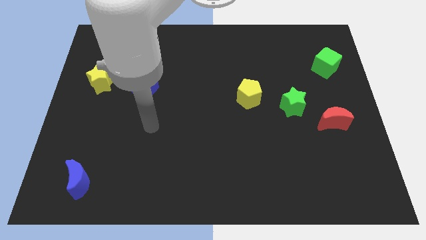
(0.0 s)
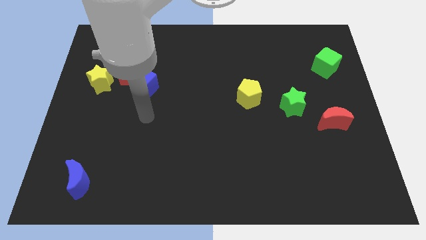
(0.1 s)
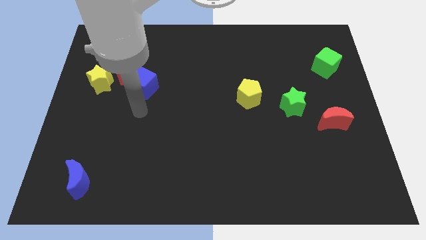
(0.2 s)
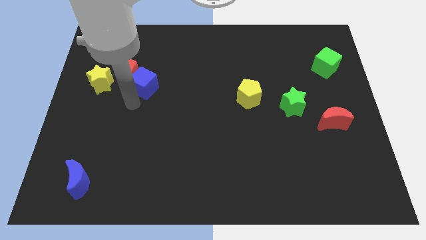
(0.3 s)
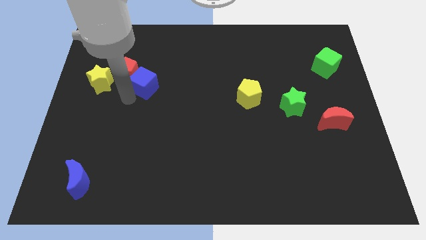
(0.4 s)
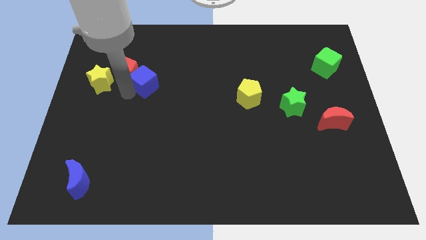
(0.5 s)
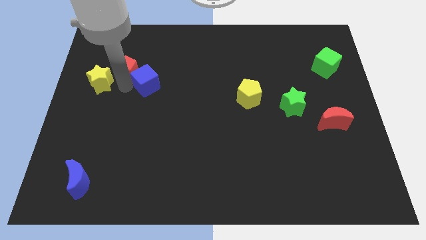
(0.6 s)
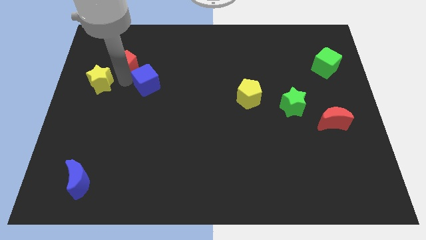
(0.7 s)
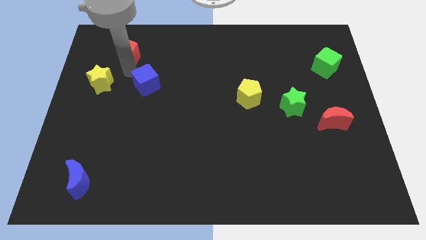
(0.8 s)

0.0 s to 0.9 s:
separate the blue cube from the red pentagon

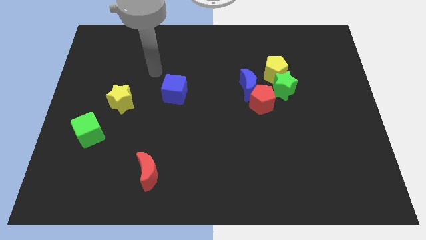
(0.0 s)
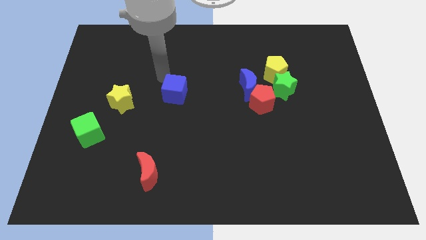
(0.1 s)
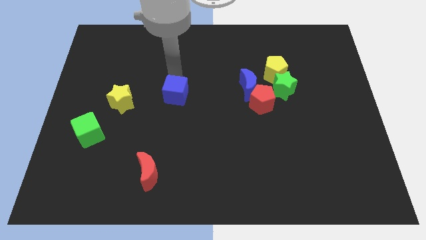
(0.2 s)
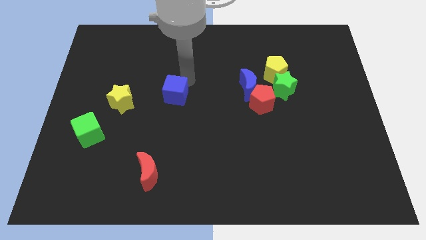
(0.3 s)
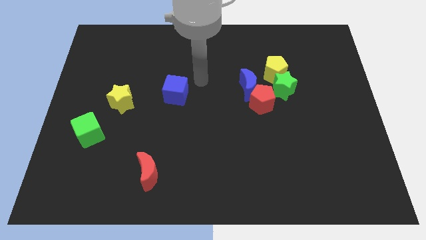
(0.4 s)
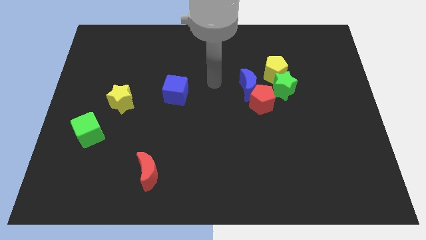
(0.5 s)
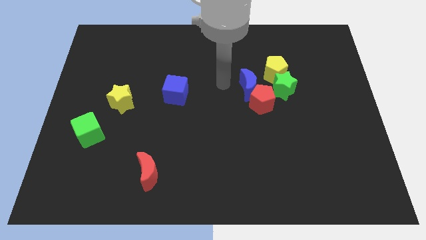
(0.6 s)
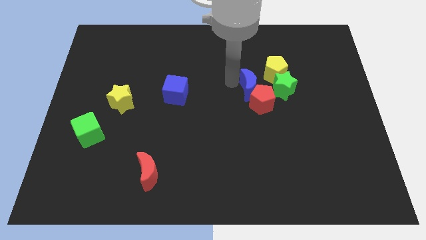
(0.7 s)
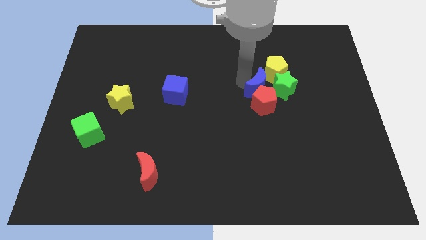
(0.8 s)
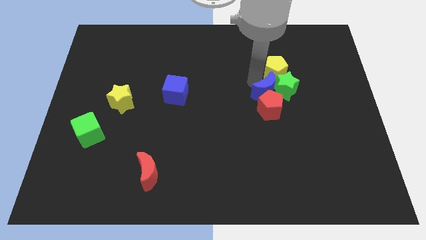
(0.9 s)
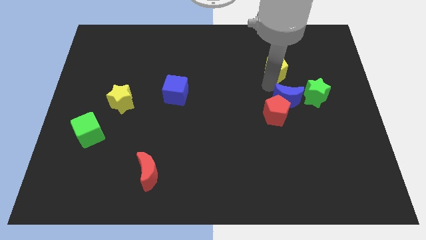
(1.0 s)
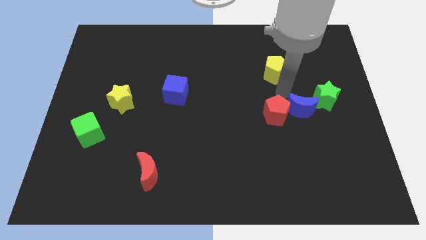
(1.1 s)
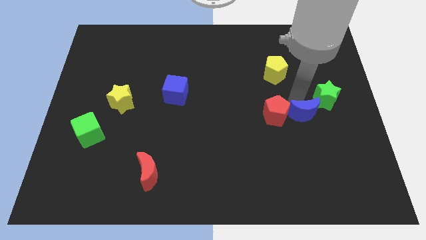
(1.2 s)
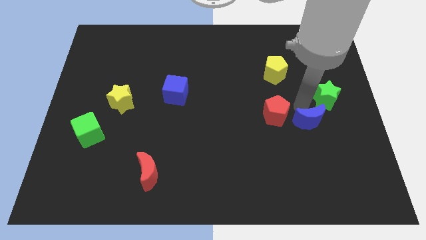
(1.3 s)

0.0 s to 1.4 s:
move the red pentagon away from the blue moon and green star

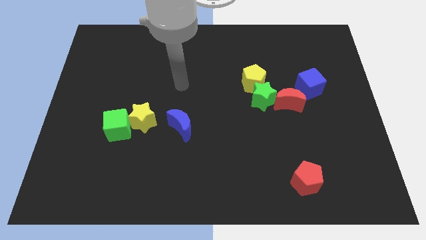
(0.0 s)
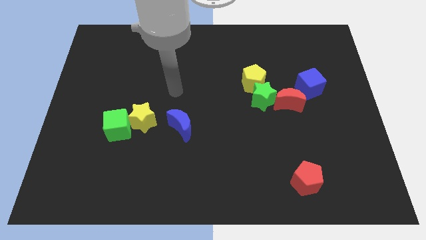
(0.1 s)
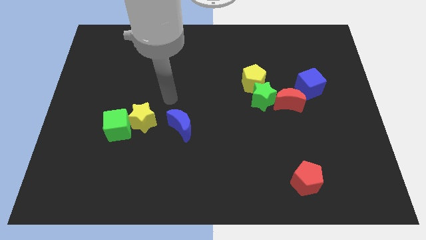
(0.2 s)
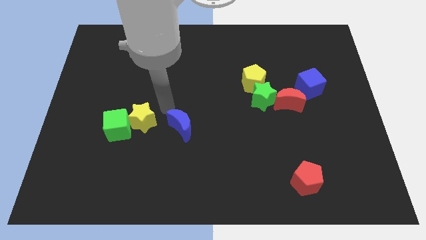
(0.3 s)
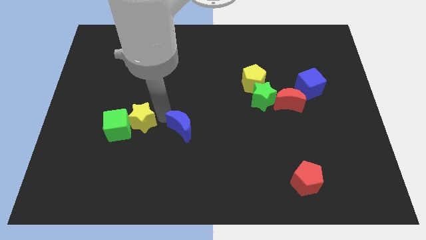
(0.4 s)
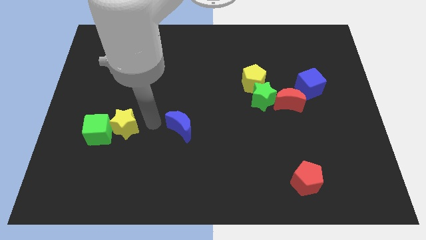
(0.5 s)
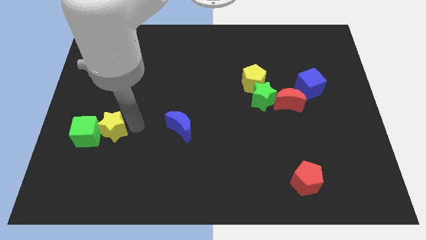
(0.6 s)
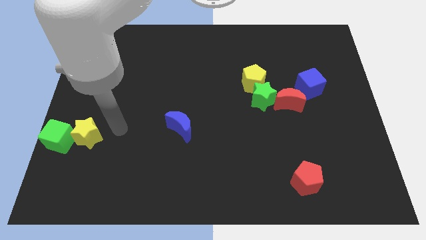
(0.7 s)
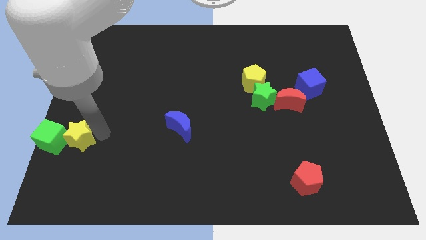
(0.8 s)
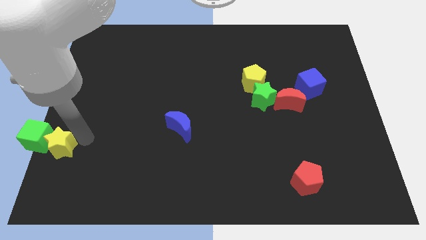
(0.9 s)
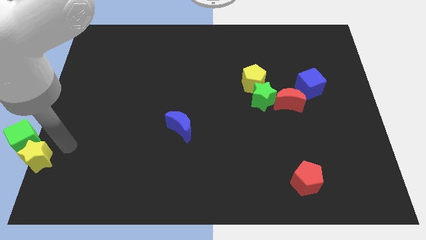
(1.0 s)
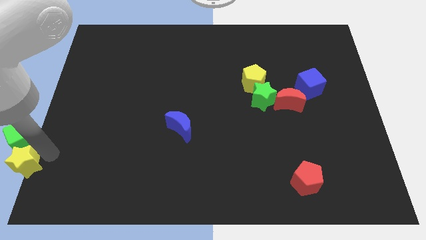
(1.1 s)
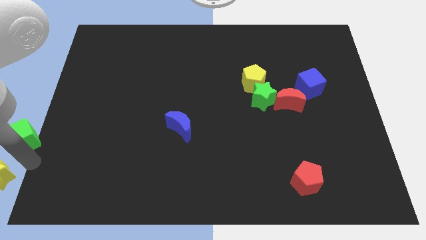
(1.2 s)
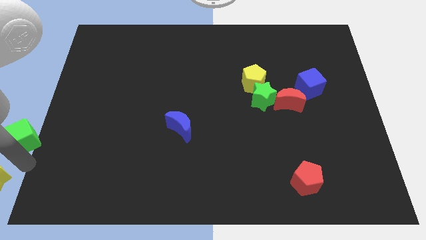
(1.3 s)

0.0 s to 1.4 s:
separate the green cube from the yellow star

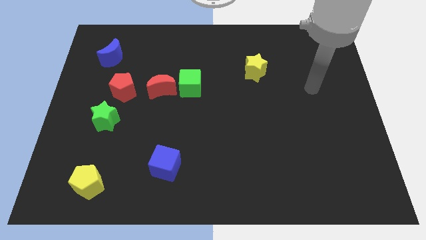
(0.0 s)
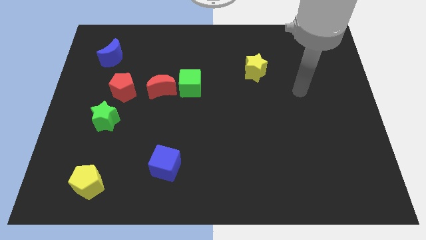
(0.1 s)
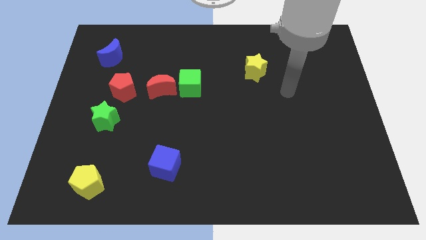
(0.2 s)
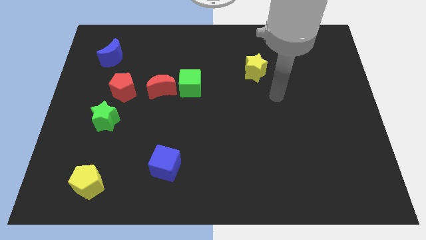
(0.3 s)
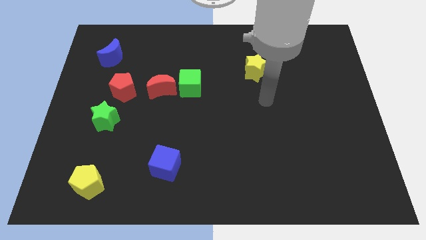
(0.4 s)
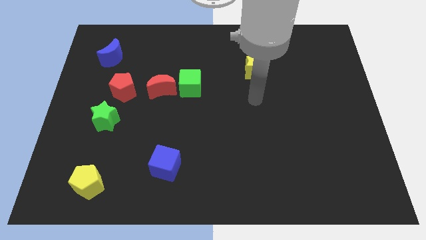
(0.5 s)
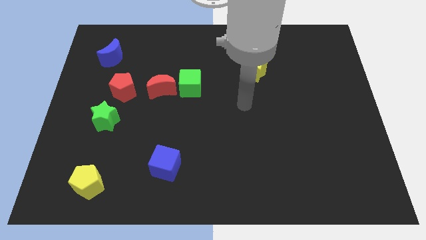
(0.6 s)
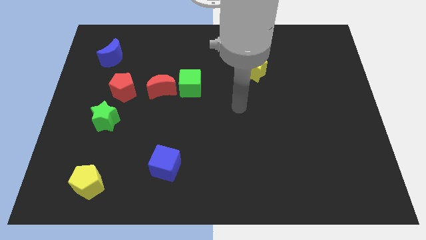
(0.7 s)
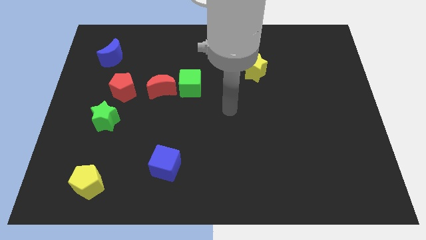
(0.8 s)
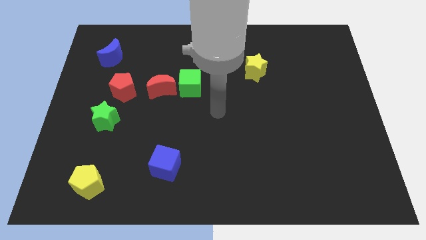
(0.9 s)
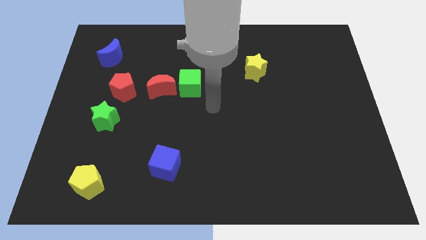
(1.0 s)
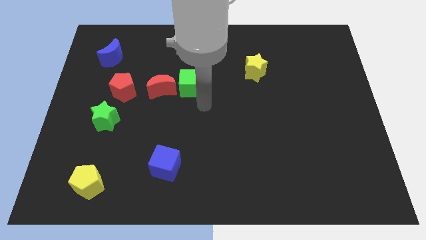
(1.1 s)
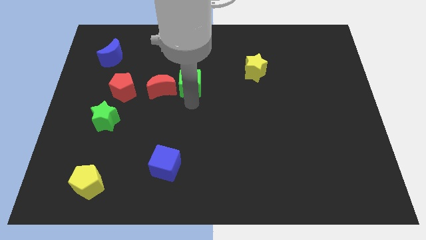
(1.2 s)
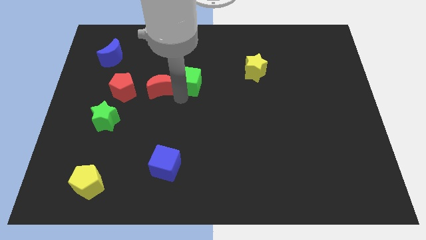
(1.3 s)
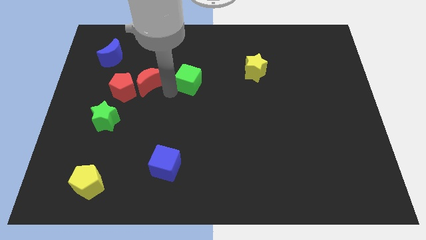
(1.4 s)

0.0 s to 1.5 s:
pull the green cube apart from the red moon

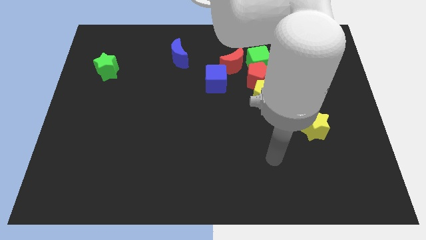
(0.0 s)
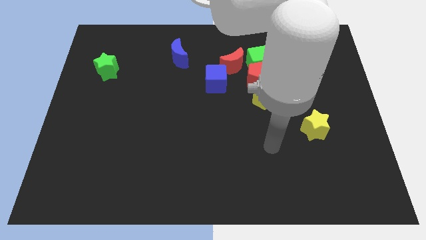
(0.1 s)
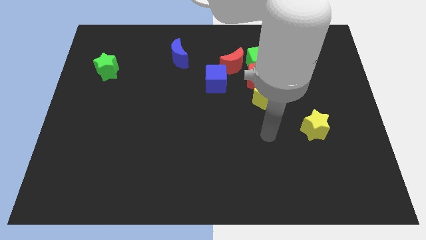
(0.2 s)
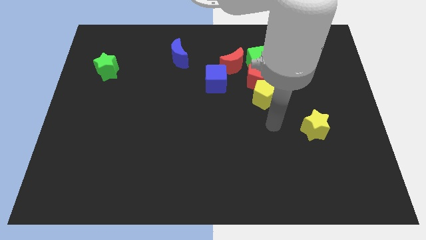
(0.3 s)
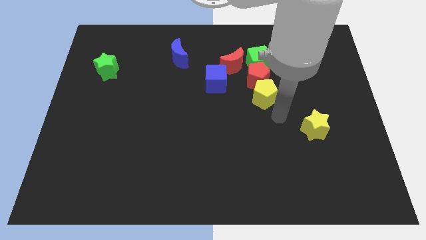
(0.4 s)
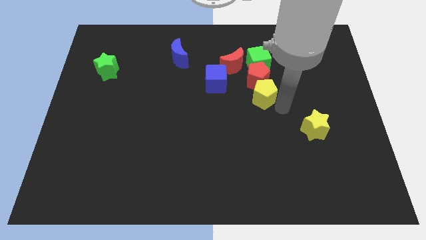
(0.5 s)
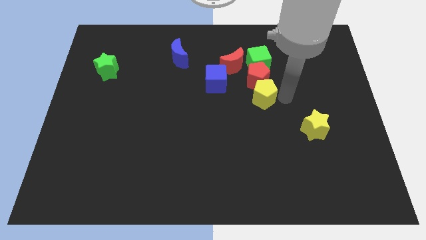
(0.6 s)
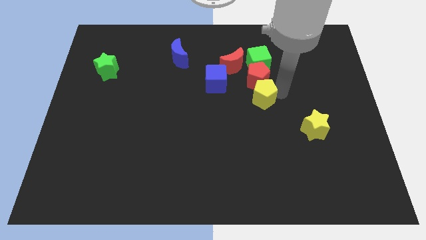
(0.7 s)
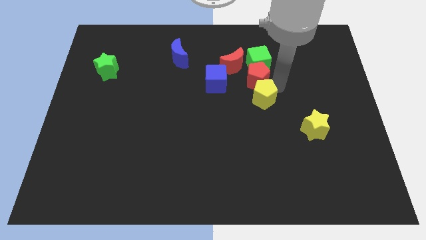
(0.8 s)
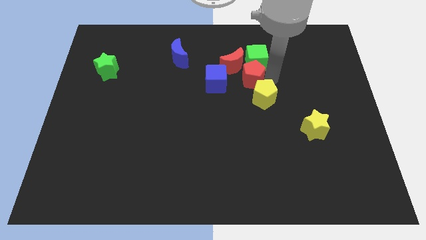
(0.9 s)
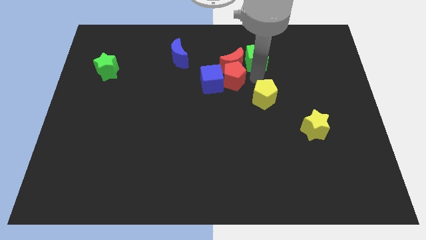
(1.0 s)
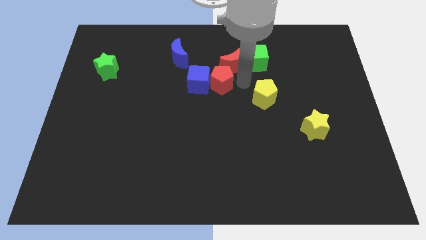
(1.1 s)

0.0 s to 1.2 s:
separate the yellow pentagon from the red pentagon

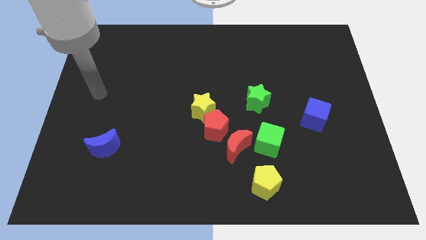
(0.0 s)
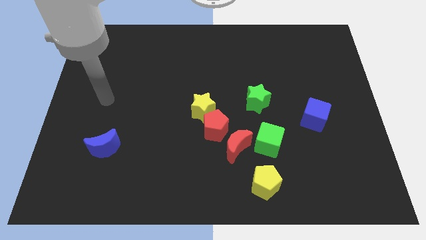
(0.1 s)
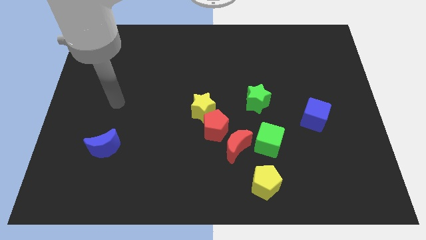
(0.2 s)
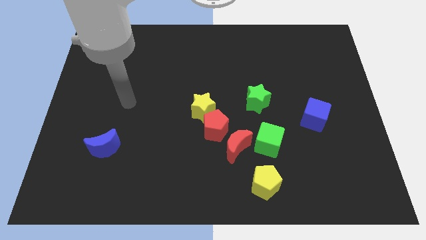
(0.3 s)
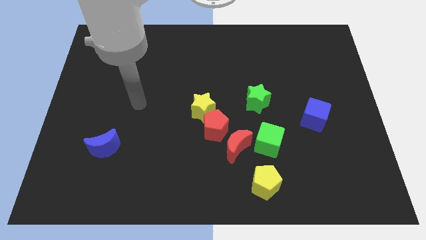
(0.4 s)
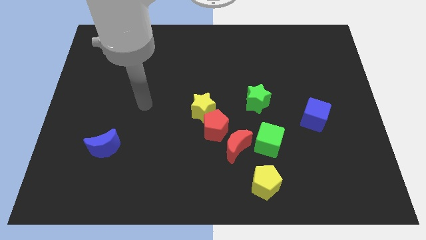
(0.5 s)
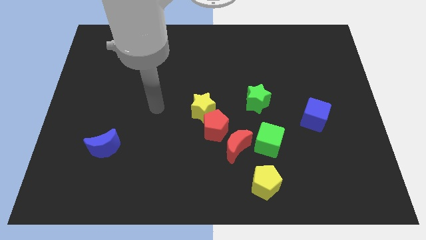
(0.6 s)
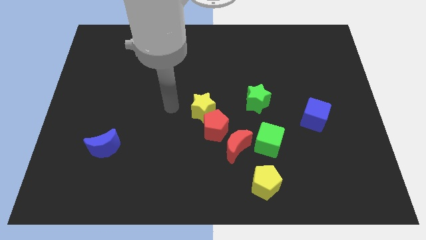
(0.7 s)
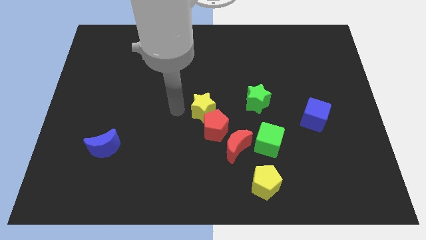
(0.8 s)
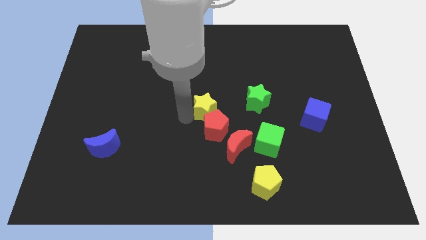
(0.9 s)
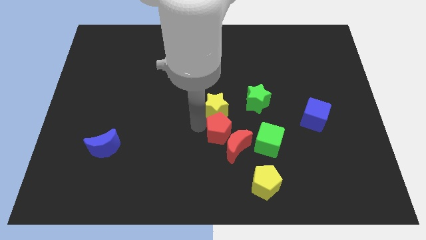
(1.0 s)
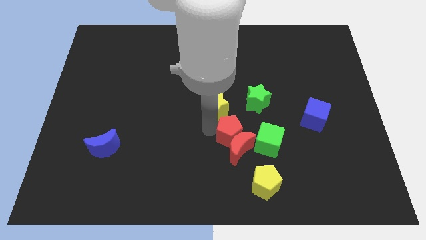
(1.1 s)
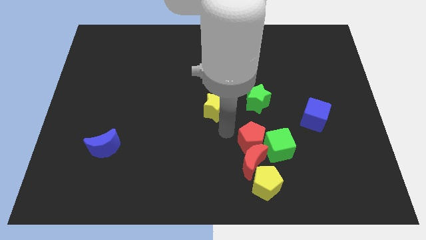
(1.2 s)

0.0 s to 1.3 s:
pull the yellow star apart from the red pentagon

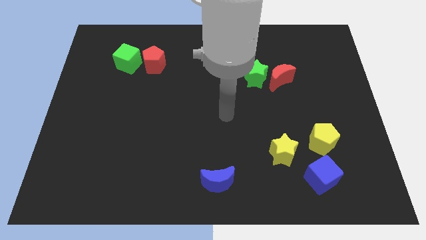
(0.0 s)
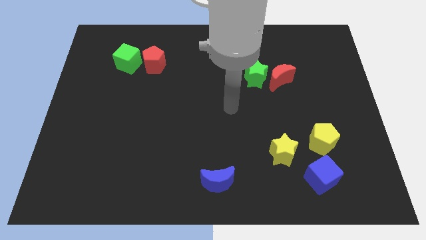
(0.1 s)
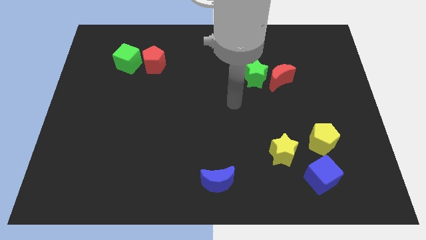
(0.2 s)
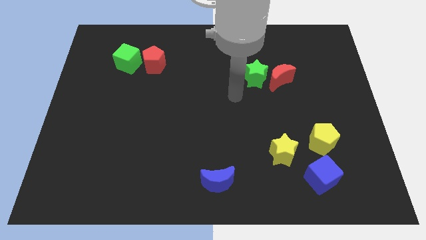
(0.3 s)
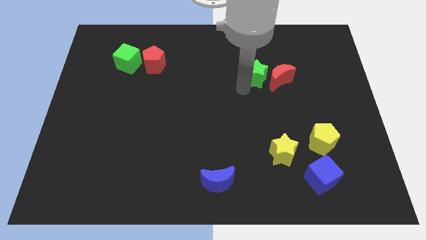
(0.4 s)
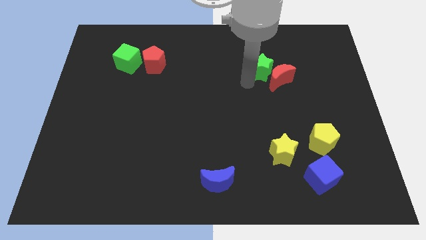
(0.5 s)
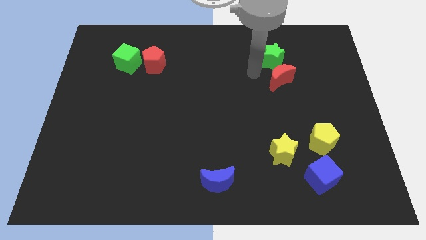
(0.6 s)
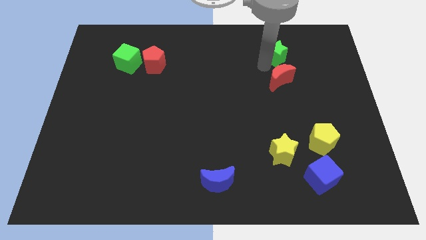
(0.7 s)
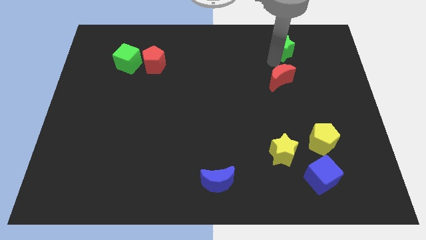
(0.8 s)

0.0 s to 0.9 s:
move the red moon away from the green star

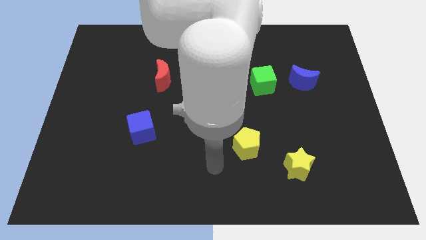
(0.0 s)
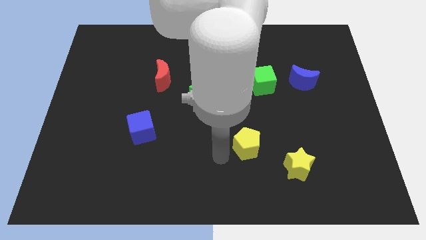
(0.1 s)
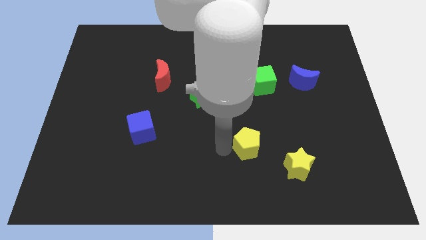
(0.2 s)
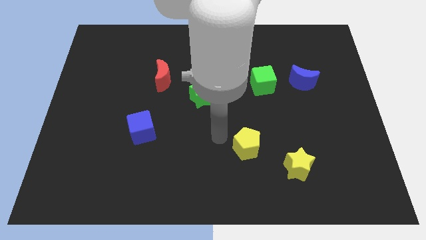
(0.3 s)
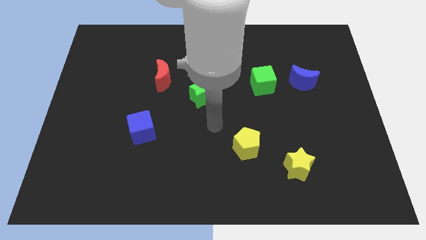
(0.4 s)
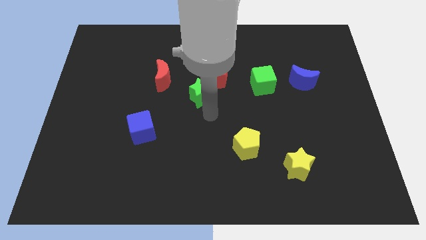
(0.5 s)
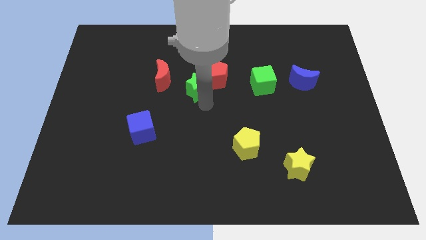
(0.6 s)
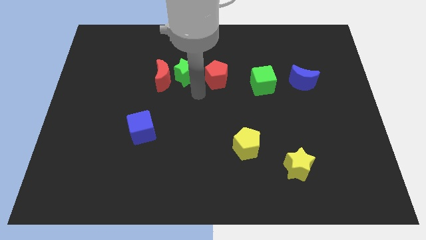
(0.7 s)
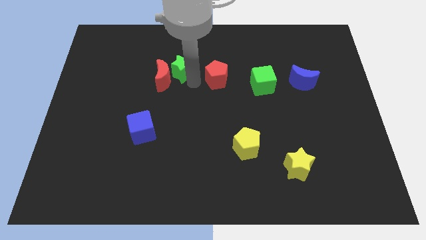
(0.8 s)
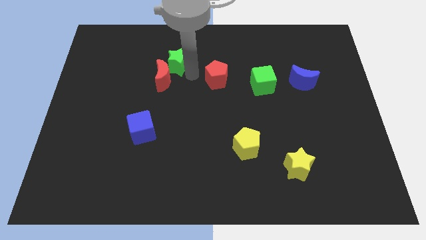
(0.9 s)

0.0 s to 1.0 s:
separate the red pentagon from the green star
